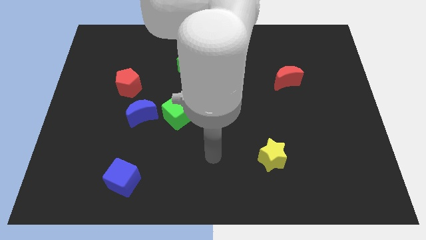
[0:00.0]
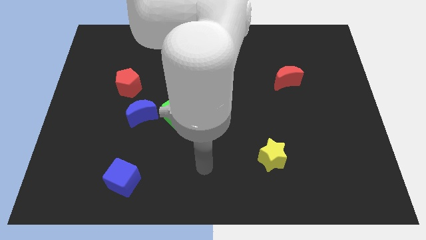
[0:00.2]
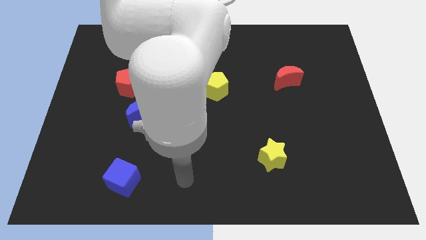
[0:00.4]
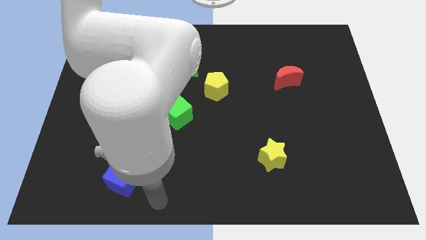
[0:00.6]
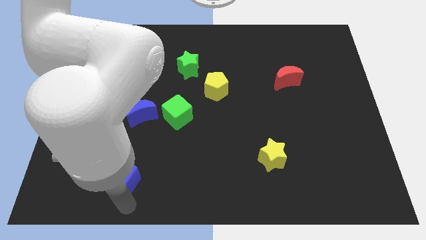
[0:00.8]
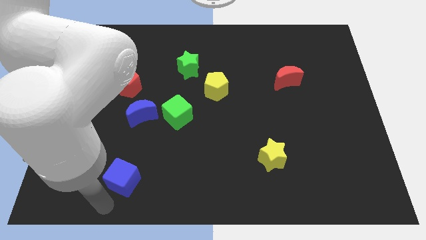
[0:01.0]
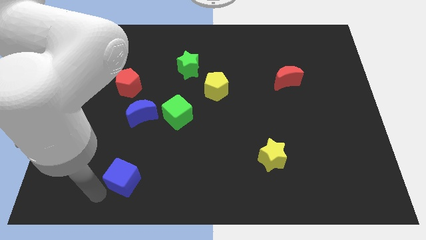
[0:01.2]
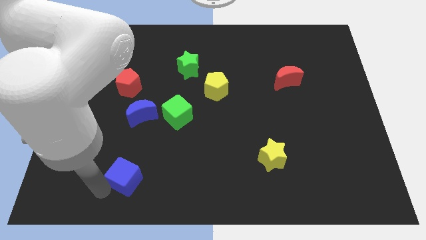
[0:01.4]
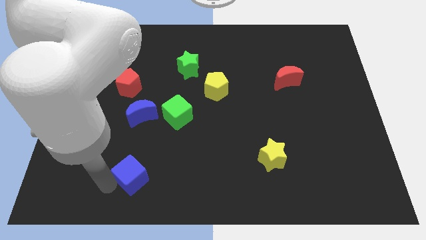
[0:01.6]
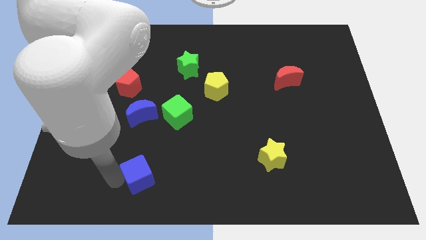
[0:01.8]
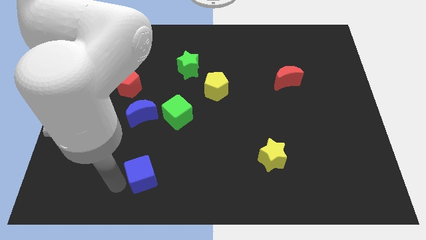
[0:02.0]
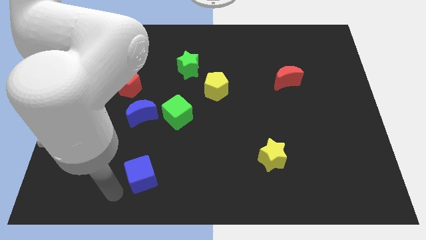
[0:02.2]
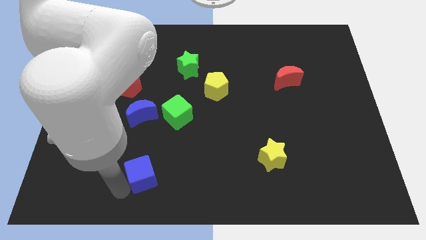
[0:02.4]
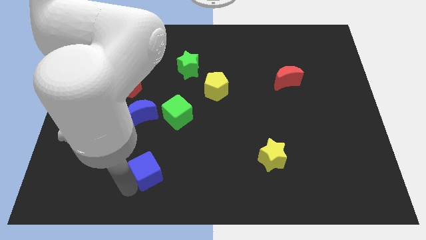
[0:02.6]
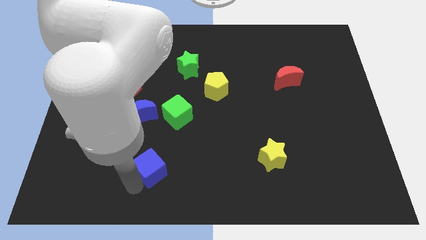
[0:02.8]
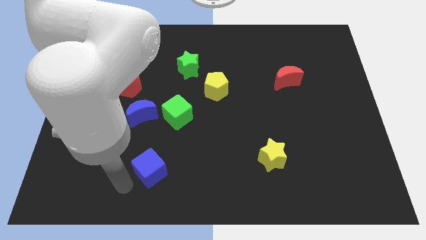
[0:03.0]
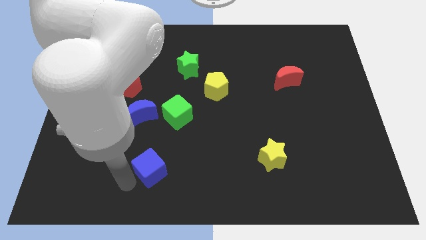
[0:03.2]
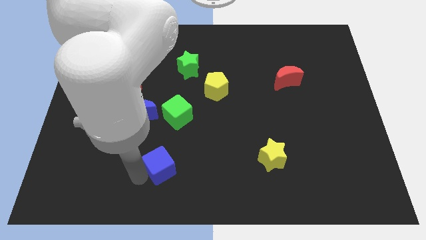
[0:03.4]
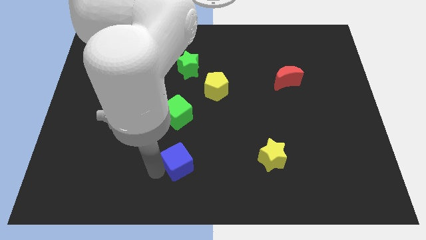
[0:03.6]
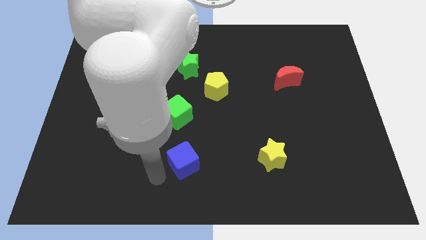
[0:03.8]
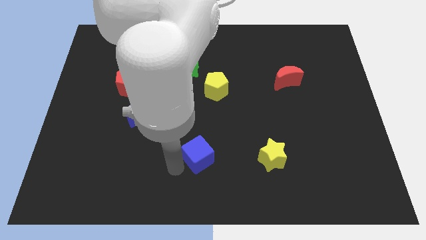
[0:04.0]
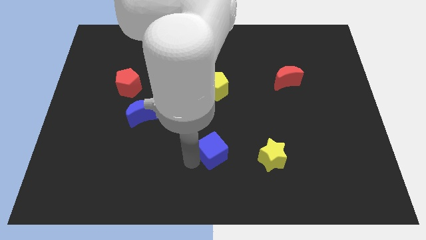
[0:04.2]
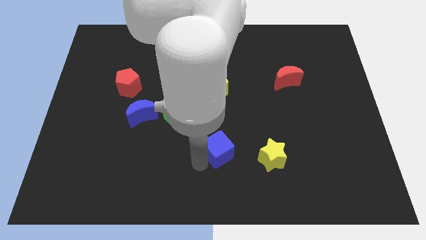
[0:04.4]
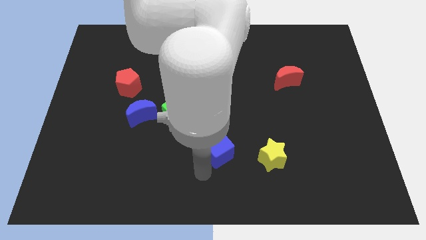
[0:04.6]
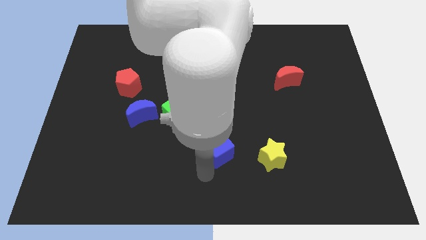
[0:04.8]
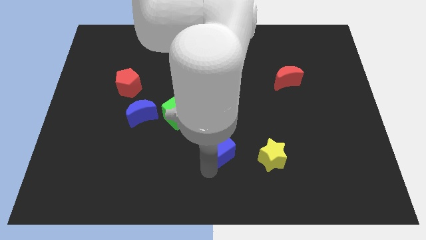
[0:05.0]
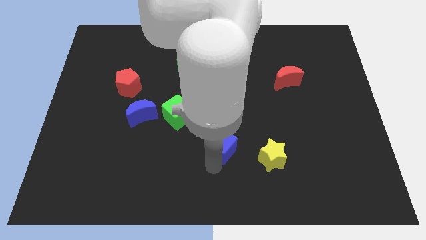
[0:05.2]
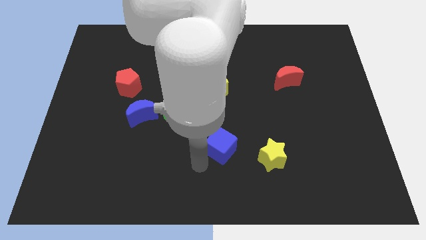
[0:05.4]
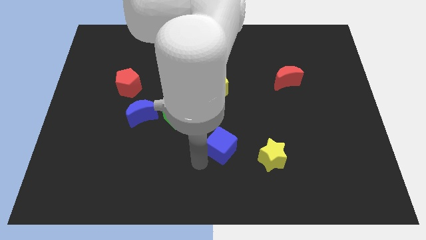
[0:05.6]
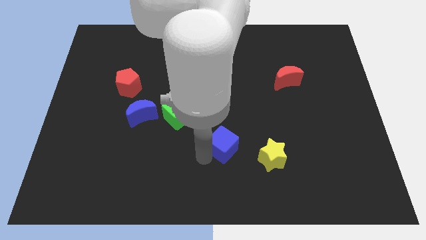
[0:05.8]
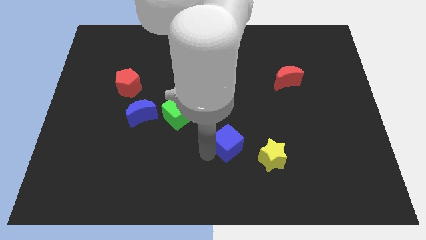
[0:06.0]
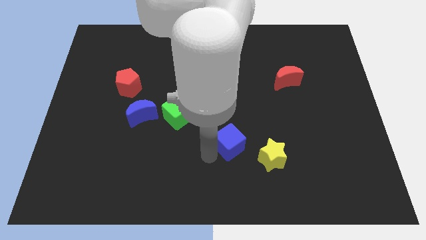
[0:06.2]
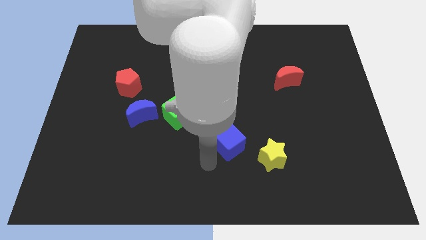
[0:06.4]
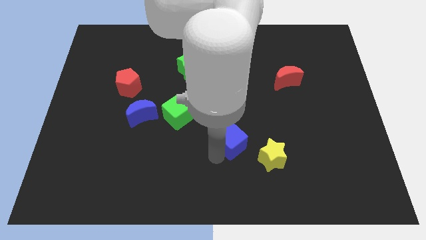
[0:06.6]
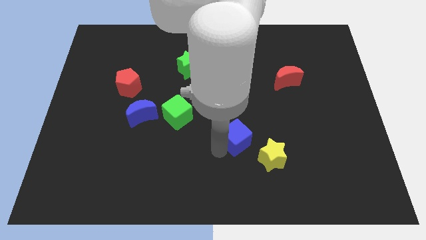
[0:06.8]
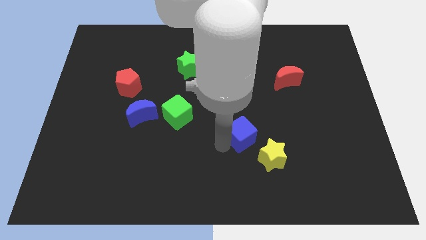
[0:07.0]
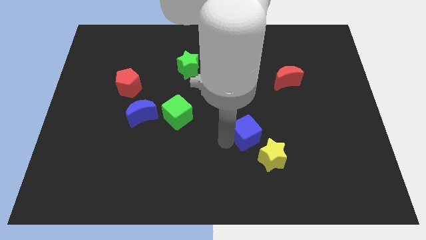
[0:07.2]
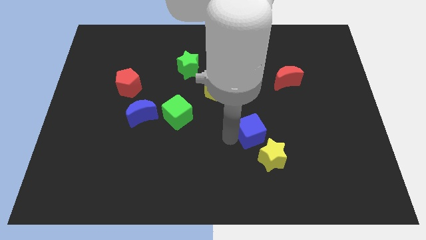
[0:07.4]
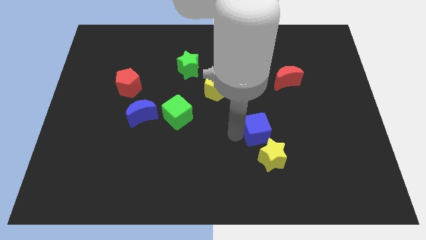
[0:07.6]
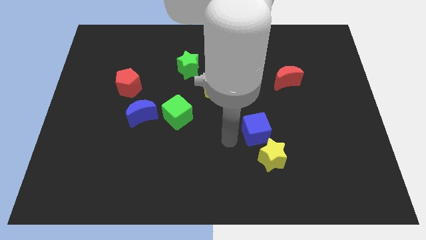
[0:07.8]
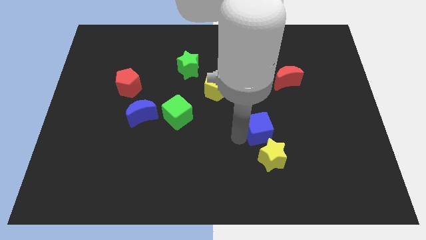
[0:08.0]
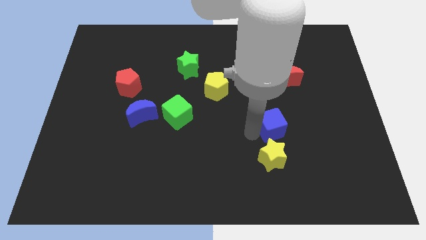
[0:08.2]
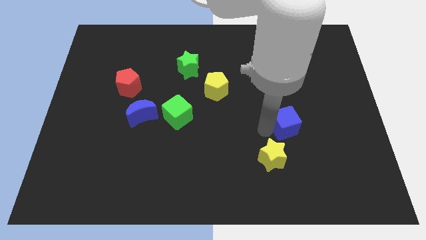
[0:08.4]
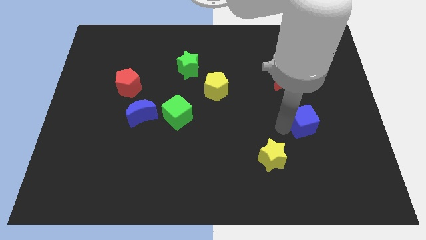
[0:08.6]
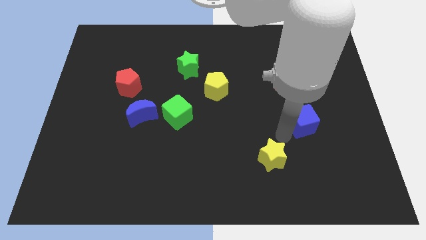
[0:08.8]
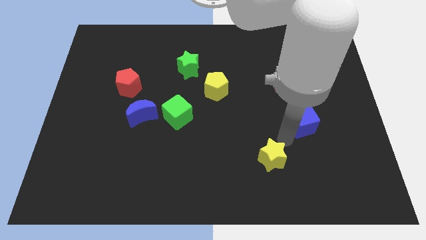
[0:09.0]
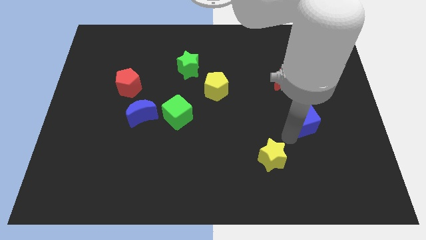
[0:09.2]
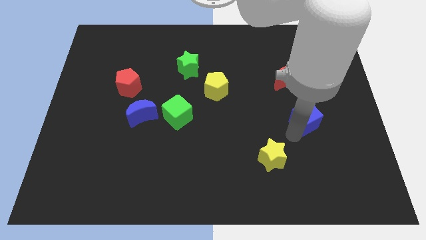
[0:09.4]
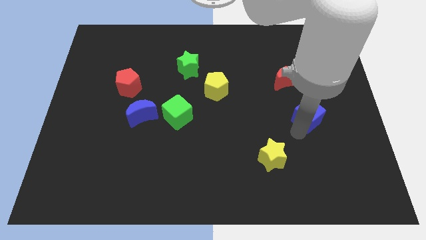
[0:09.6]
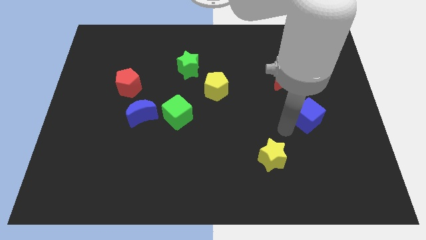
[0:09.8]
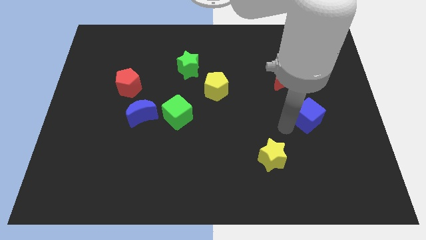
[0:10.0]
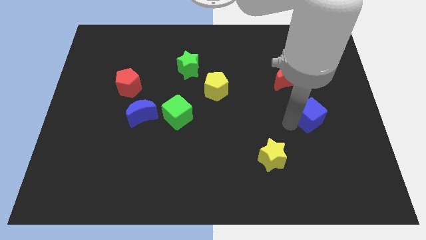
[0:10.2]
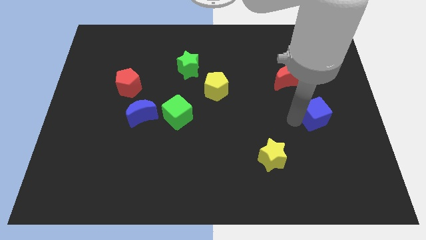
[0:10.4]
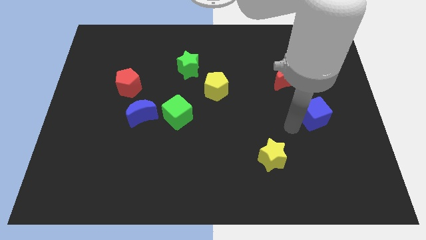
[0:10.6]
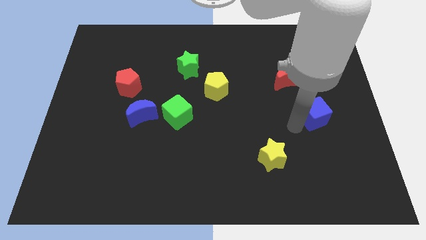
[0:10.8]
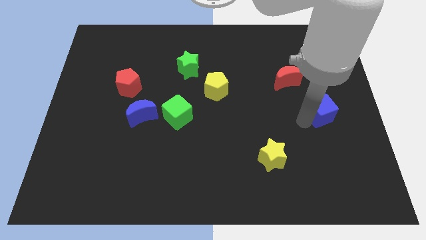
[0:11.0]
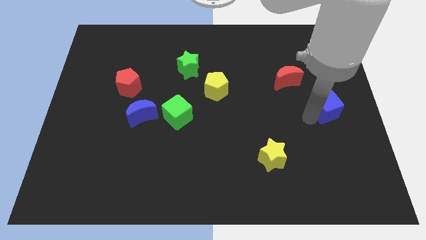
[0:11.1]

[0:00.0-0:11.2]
put the blue cube to the right side

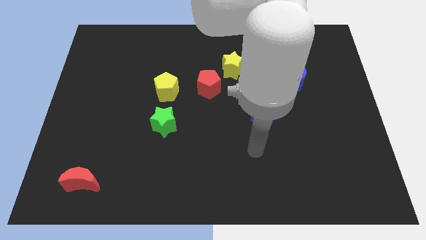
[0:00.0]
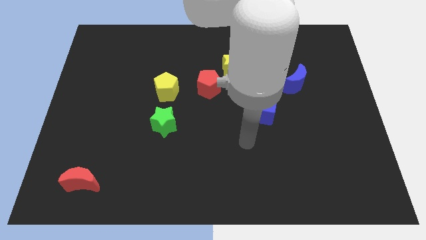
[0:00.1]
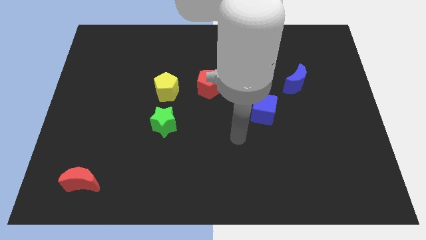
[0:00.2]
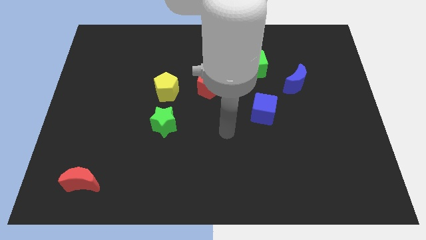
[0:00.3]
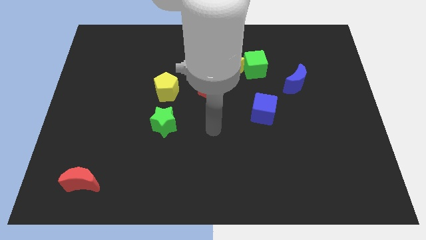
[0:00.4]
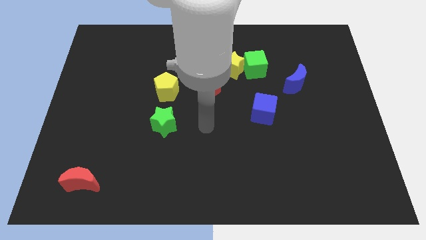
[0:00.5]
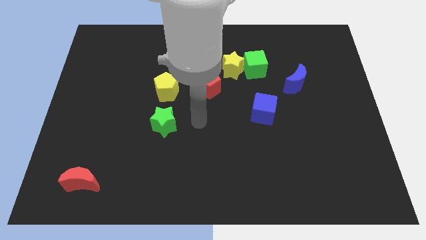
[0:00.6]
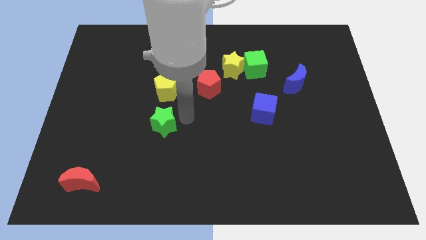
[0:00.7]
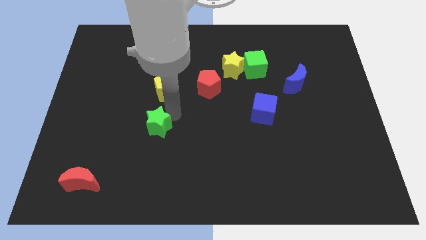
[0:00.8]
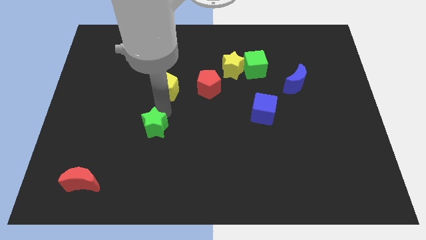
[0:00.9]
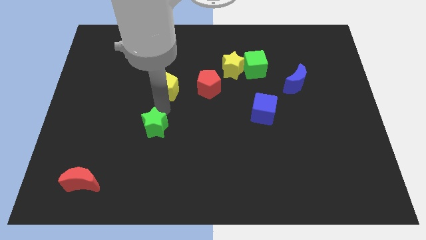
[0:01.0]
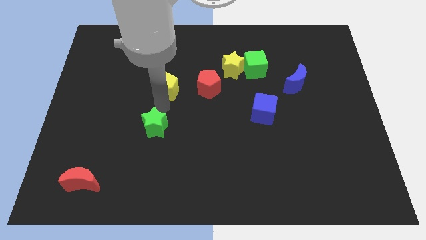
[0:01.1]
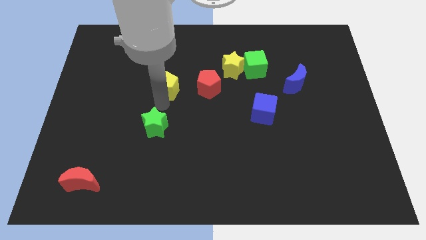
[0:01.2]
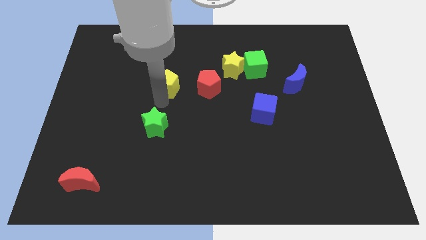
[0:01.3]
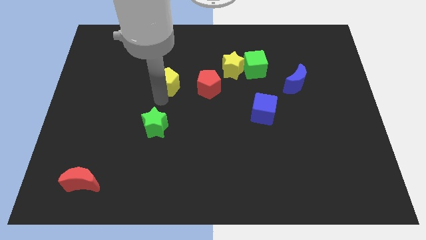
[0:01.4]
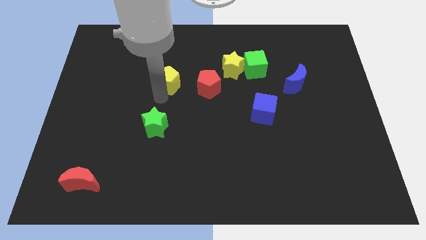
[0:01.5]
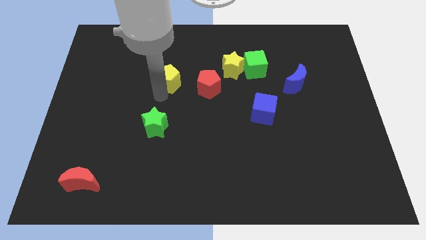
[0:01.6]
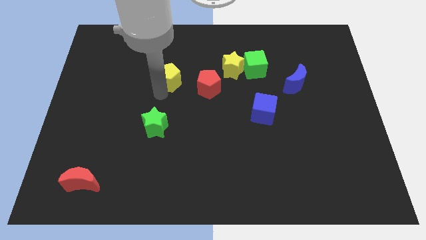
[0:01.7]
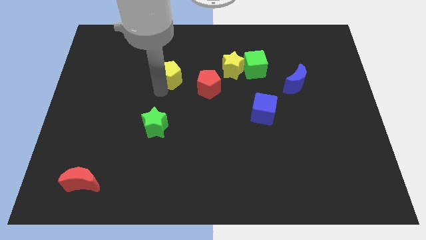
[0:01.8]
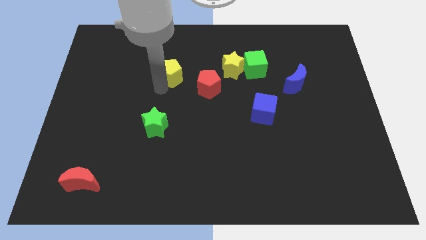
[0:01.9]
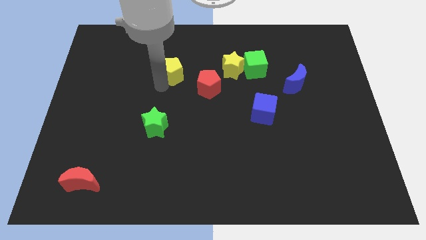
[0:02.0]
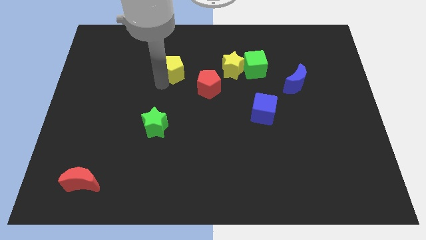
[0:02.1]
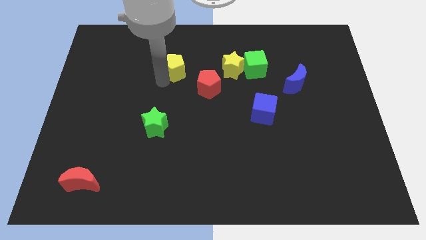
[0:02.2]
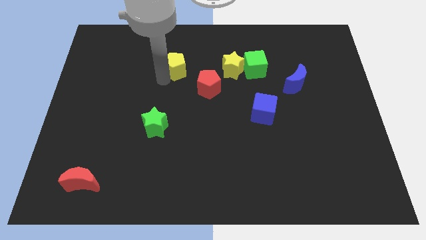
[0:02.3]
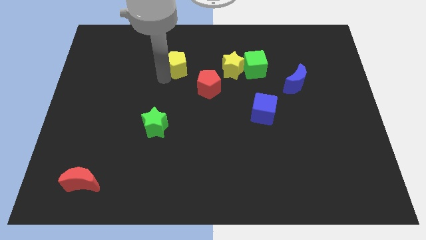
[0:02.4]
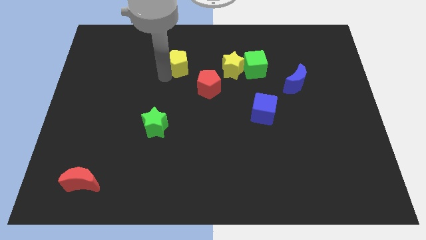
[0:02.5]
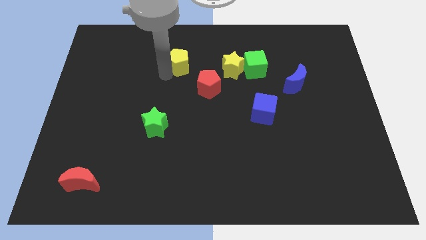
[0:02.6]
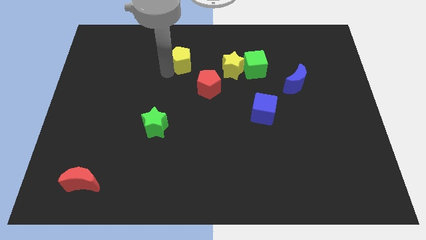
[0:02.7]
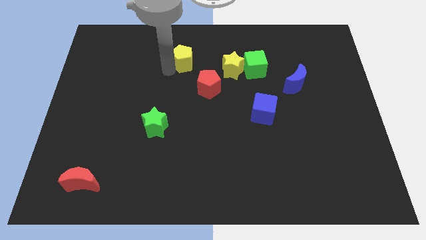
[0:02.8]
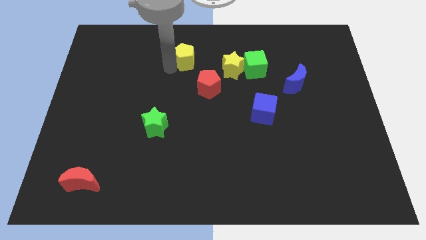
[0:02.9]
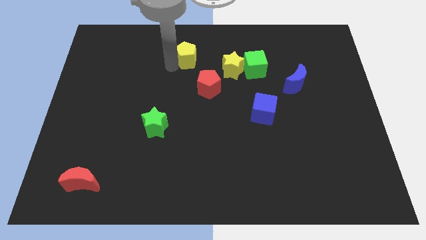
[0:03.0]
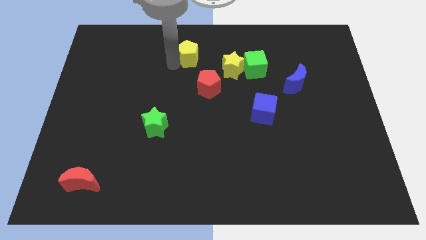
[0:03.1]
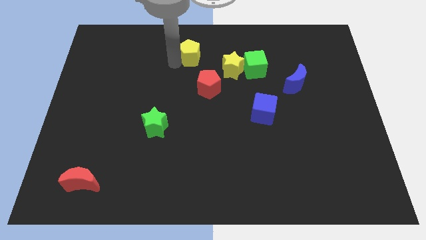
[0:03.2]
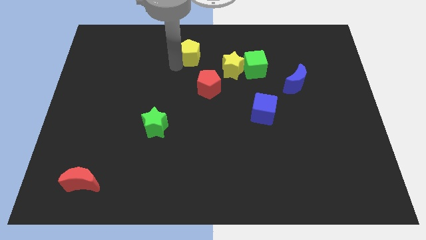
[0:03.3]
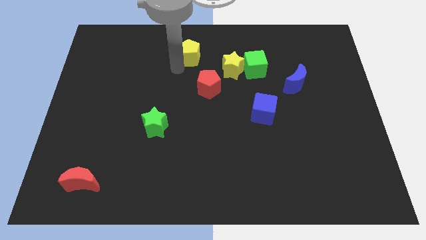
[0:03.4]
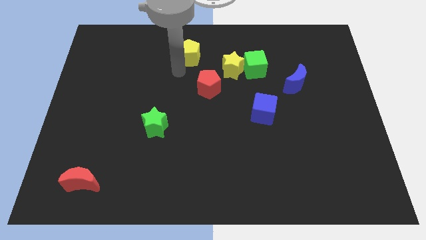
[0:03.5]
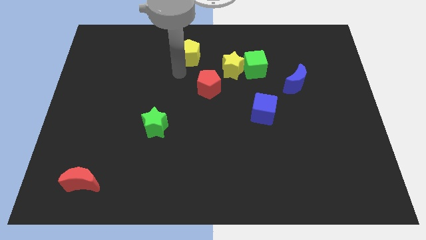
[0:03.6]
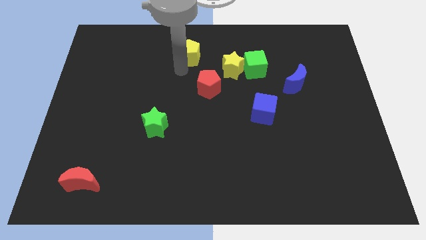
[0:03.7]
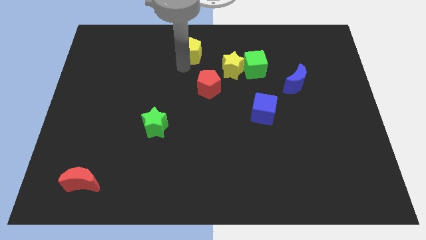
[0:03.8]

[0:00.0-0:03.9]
push the yellow pentagon to the top
